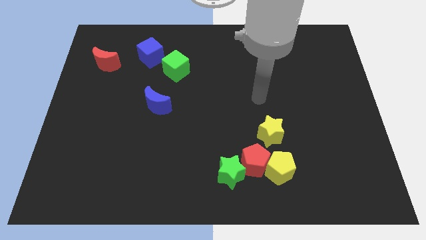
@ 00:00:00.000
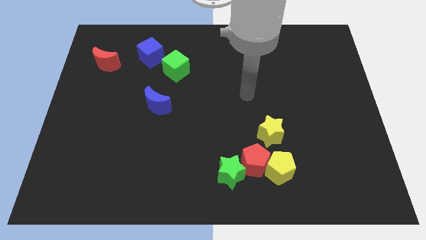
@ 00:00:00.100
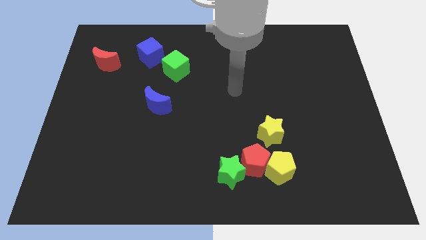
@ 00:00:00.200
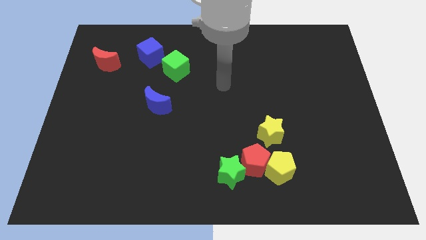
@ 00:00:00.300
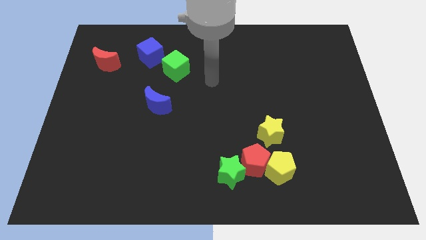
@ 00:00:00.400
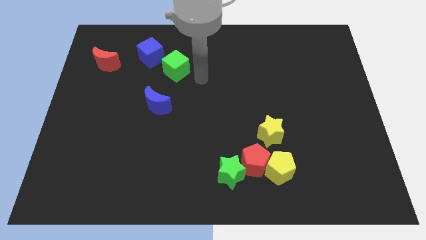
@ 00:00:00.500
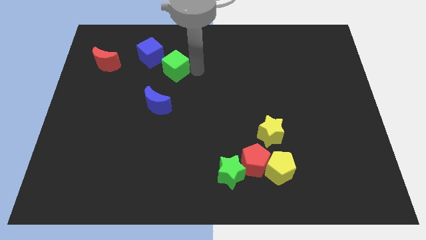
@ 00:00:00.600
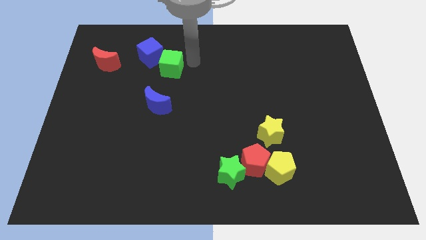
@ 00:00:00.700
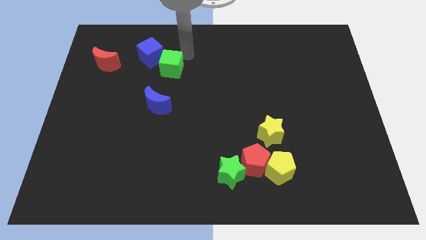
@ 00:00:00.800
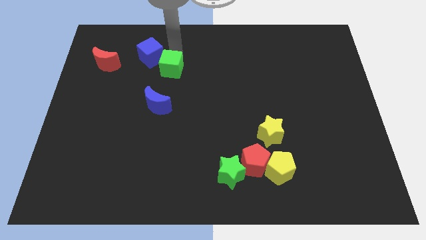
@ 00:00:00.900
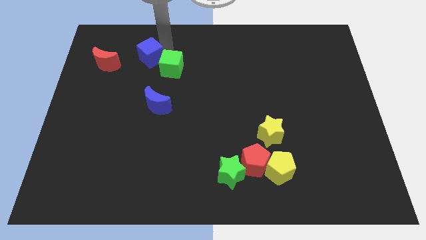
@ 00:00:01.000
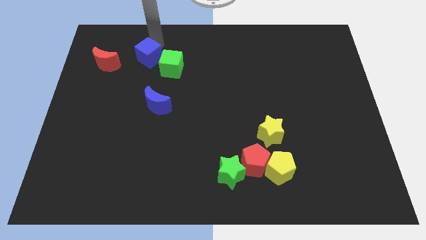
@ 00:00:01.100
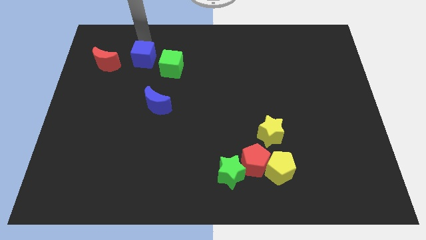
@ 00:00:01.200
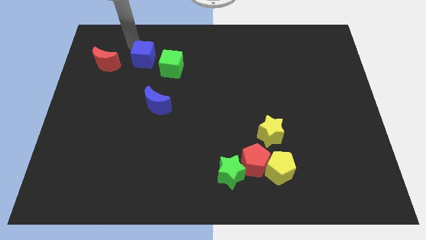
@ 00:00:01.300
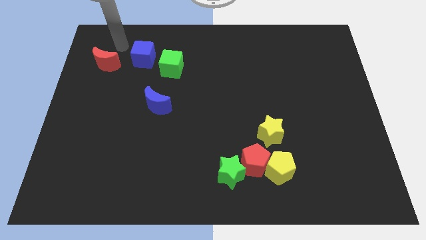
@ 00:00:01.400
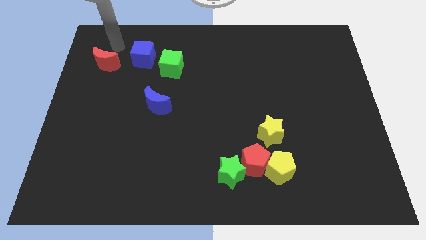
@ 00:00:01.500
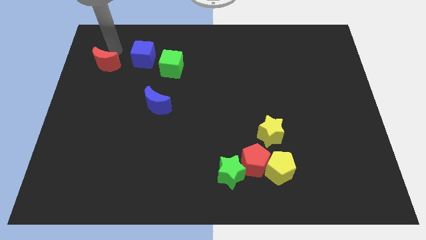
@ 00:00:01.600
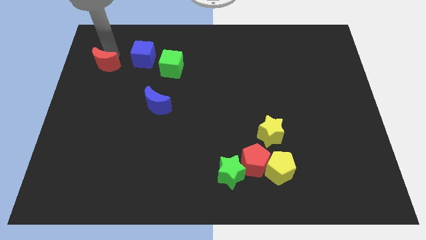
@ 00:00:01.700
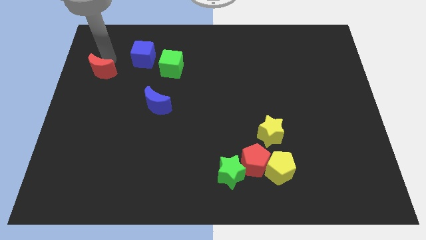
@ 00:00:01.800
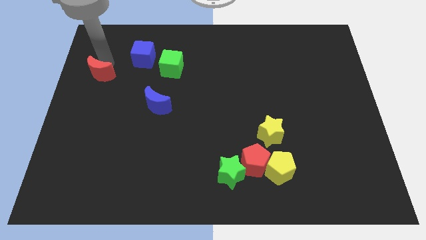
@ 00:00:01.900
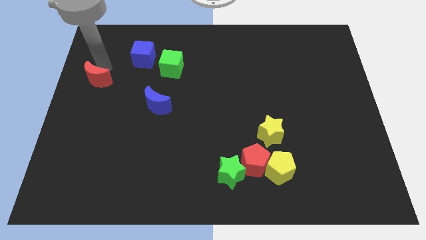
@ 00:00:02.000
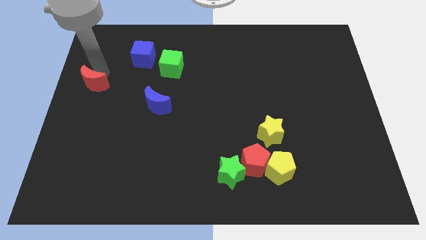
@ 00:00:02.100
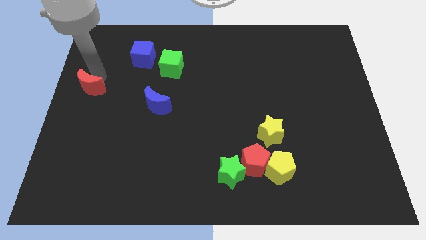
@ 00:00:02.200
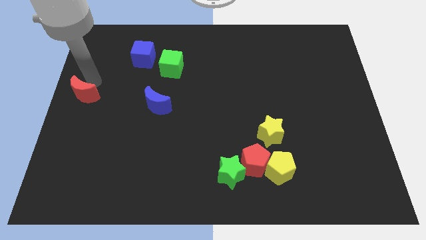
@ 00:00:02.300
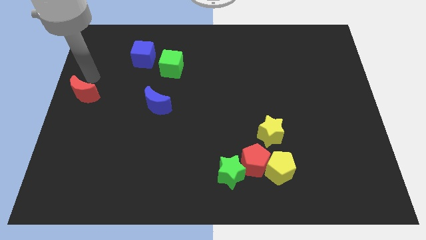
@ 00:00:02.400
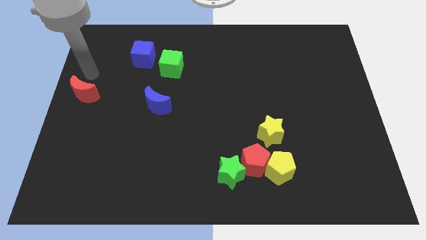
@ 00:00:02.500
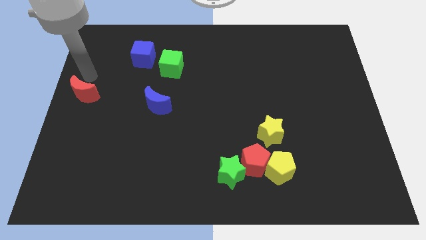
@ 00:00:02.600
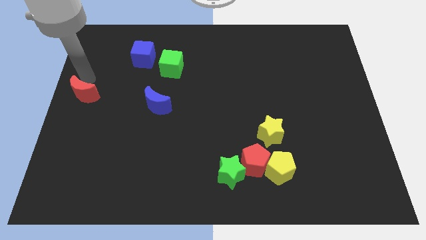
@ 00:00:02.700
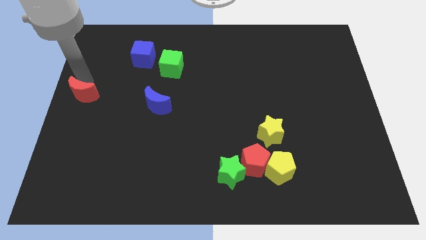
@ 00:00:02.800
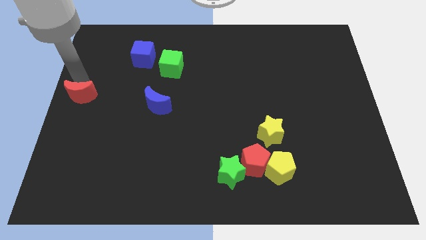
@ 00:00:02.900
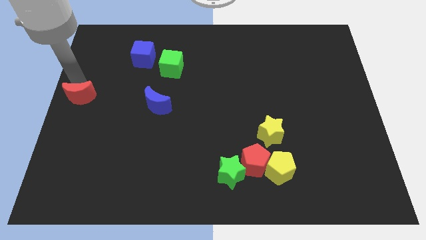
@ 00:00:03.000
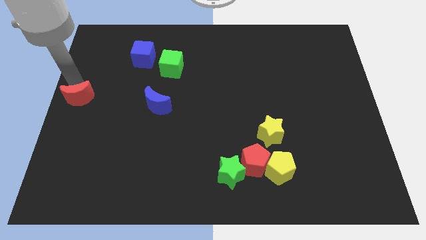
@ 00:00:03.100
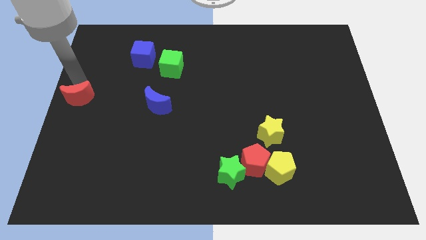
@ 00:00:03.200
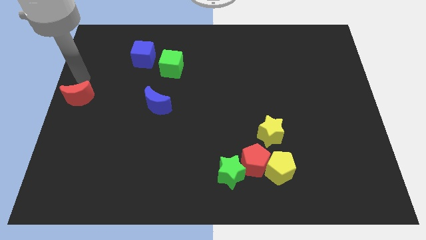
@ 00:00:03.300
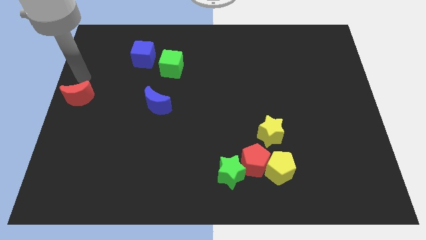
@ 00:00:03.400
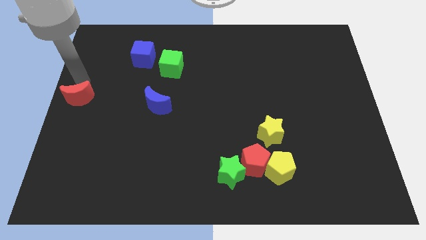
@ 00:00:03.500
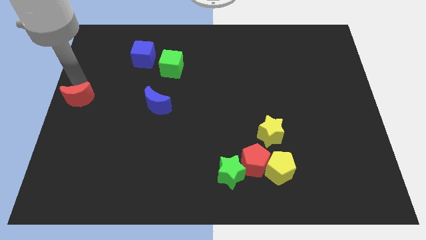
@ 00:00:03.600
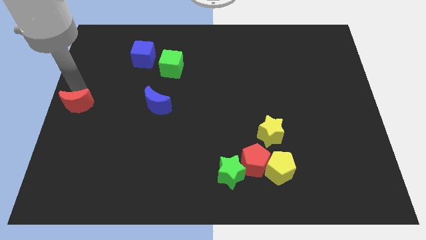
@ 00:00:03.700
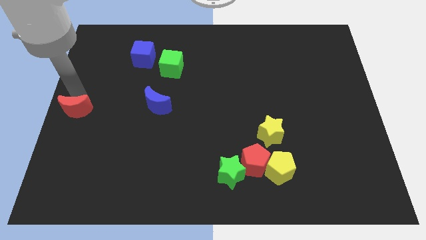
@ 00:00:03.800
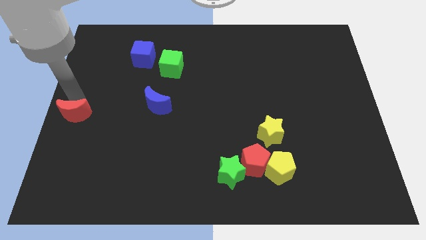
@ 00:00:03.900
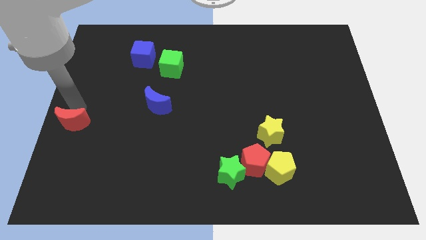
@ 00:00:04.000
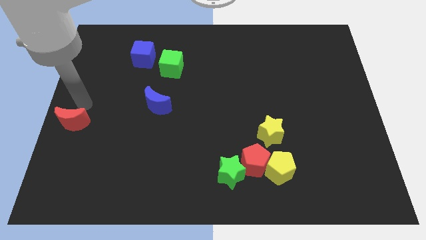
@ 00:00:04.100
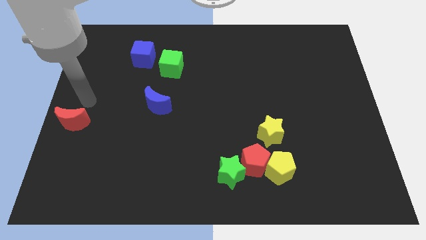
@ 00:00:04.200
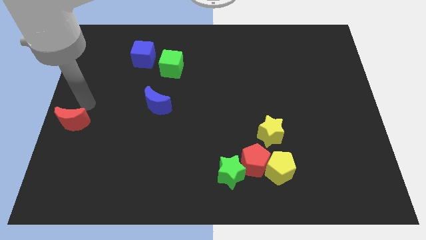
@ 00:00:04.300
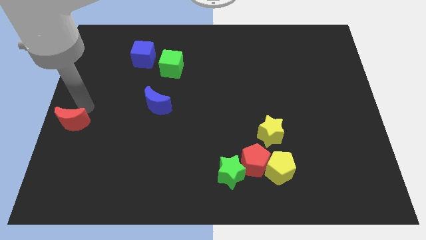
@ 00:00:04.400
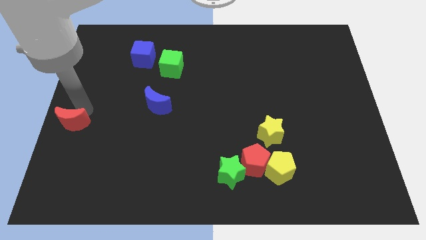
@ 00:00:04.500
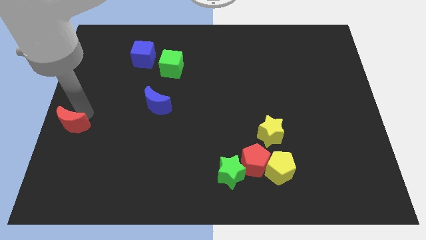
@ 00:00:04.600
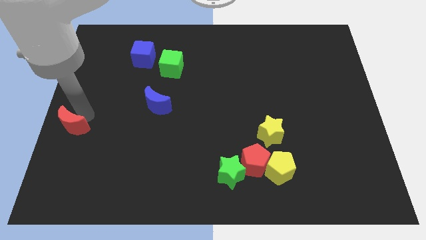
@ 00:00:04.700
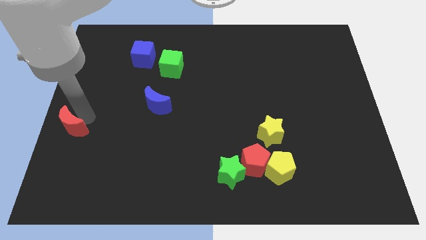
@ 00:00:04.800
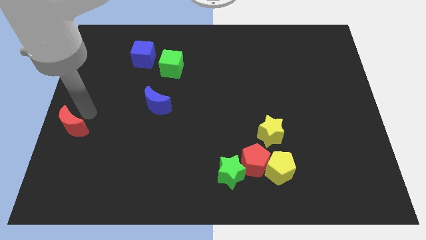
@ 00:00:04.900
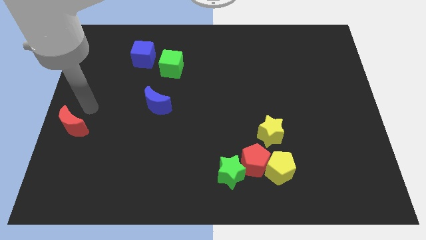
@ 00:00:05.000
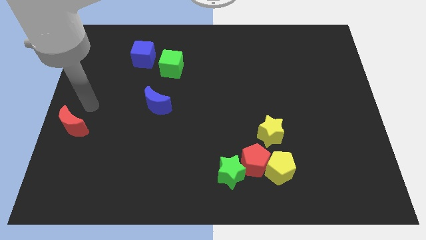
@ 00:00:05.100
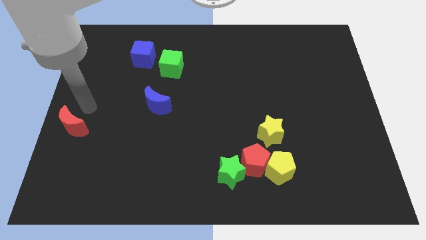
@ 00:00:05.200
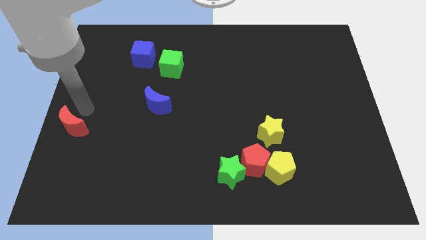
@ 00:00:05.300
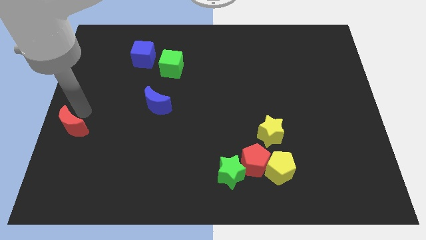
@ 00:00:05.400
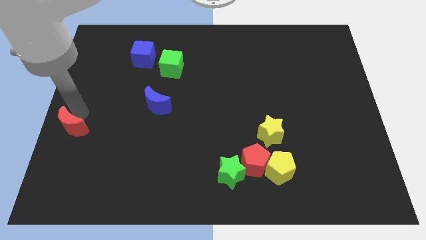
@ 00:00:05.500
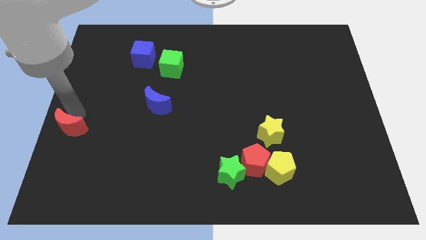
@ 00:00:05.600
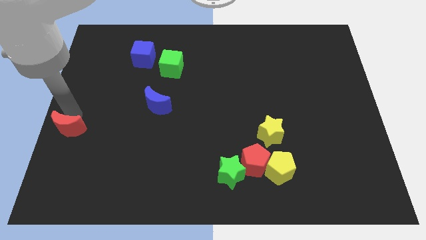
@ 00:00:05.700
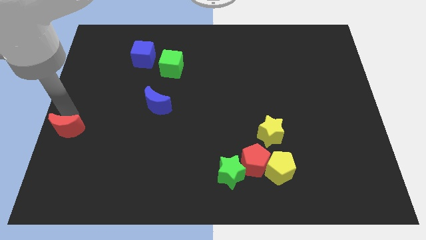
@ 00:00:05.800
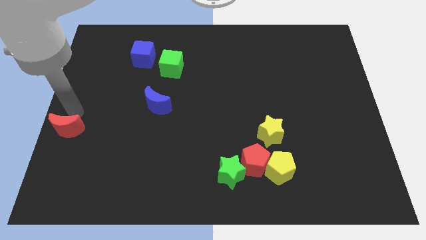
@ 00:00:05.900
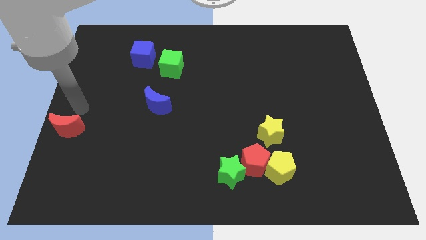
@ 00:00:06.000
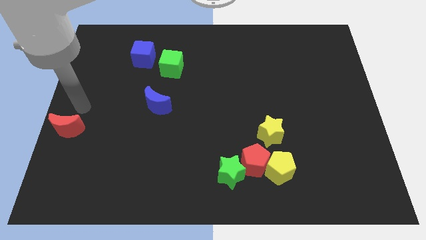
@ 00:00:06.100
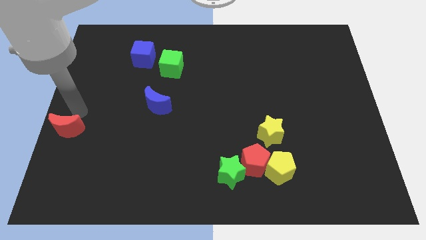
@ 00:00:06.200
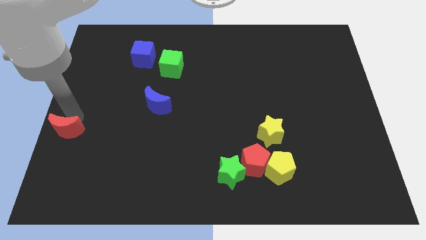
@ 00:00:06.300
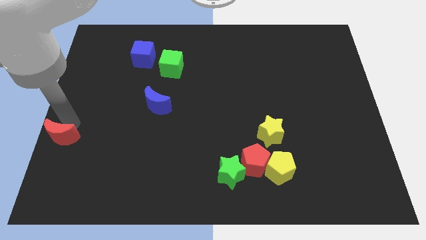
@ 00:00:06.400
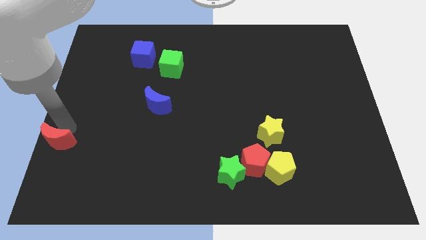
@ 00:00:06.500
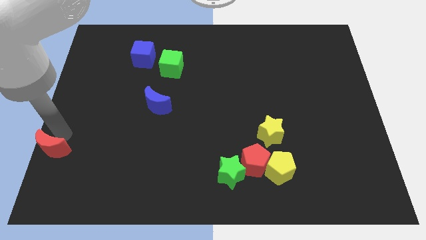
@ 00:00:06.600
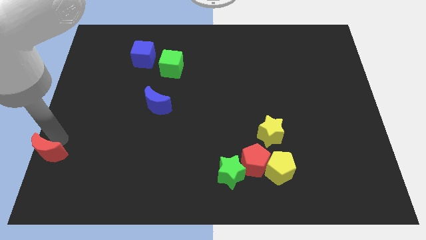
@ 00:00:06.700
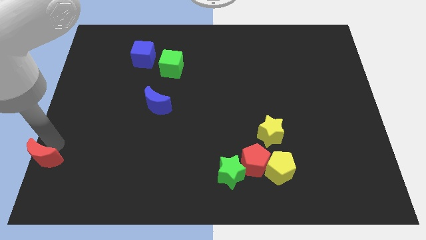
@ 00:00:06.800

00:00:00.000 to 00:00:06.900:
put the red moon to the bottom left corner
